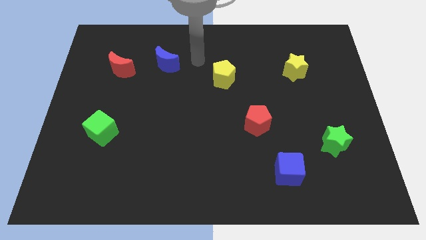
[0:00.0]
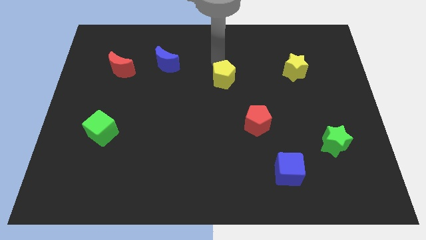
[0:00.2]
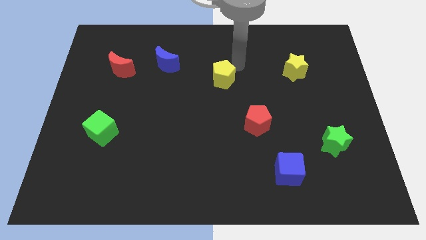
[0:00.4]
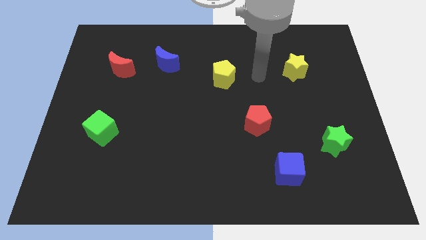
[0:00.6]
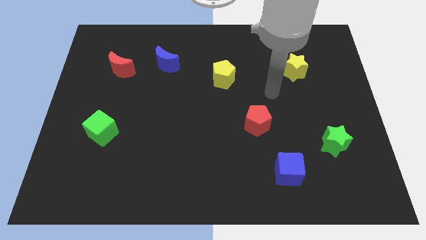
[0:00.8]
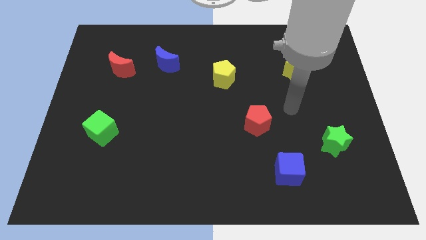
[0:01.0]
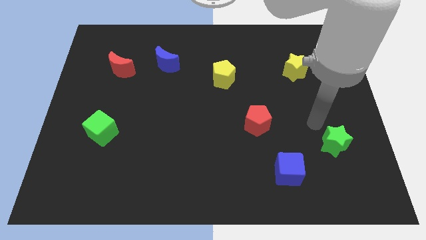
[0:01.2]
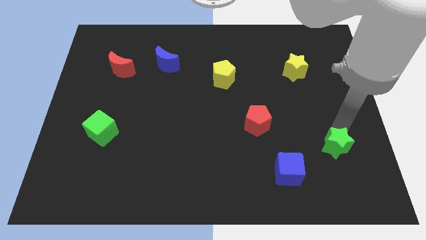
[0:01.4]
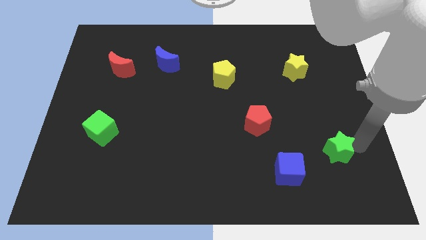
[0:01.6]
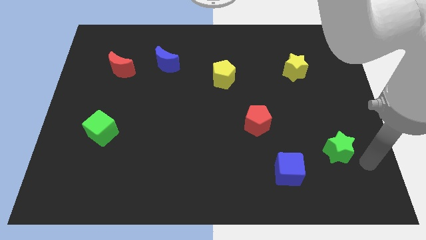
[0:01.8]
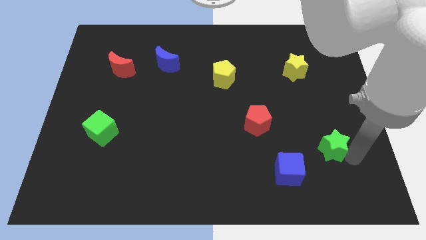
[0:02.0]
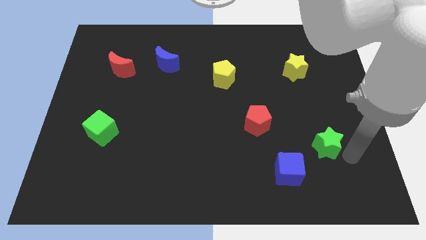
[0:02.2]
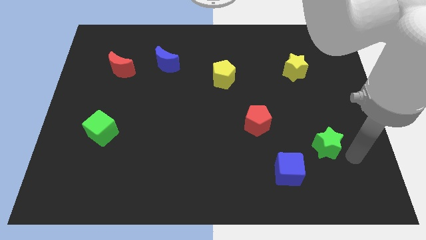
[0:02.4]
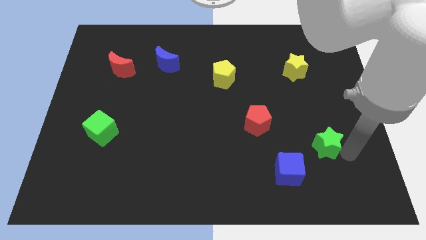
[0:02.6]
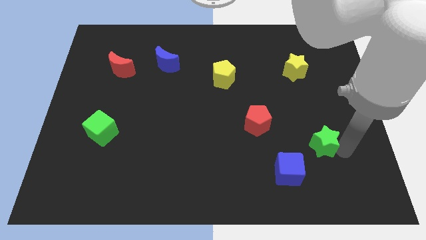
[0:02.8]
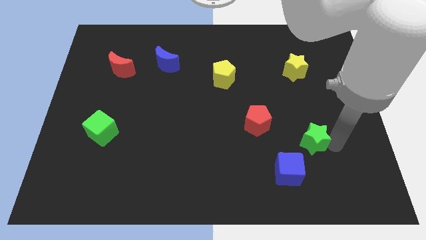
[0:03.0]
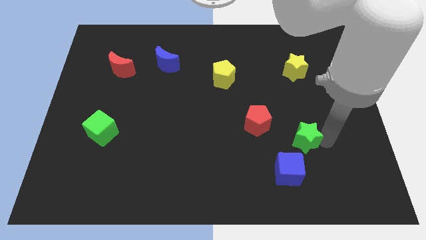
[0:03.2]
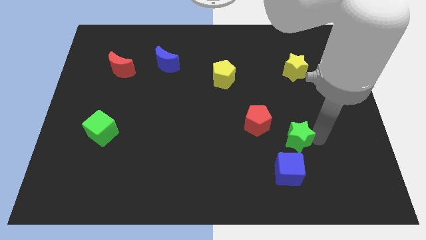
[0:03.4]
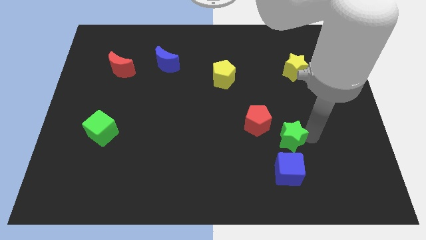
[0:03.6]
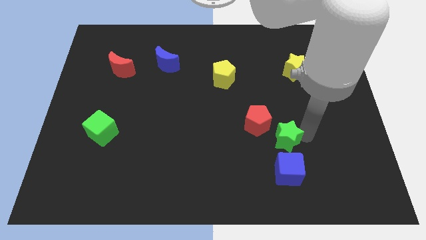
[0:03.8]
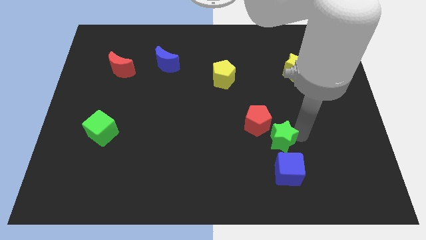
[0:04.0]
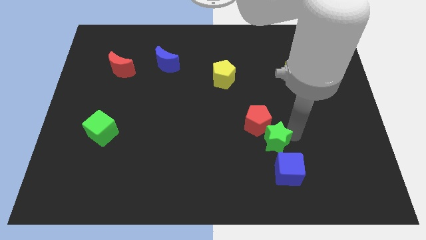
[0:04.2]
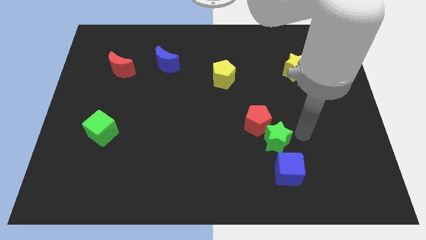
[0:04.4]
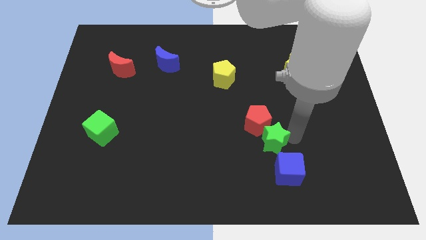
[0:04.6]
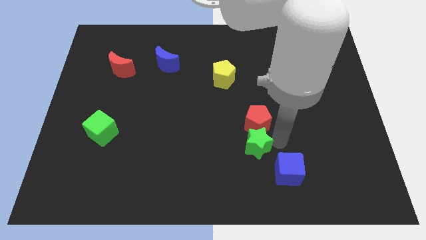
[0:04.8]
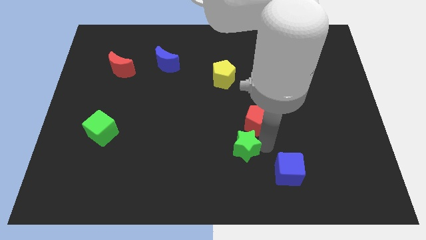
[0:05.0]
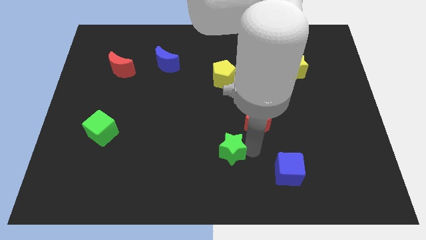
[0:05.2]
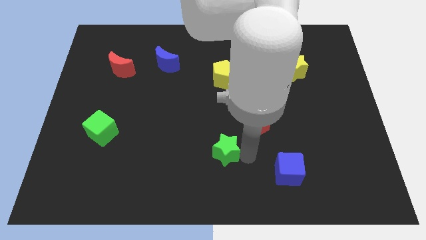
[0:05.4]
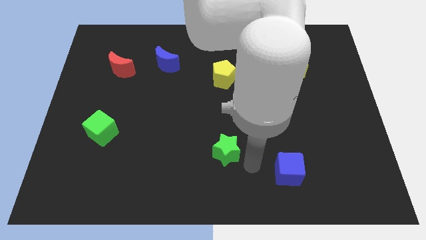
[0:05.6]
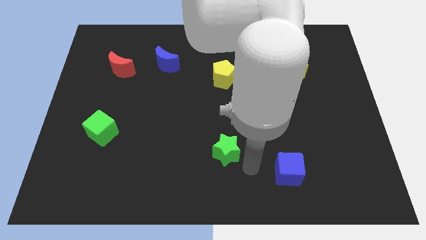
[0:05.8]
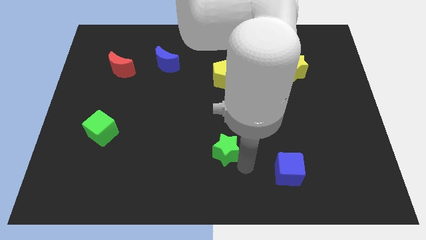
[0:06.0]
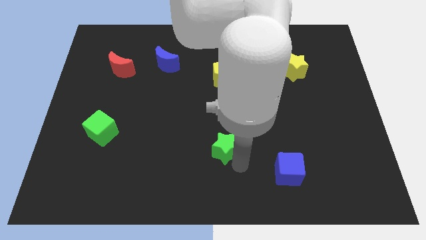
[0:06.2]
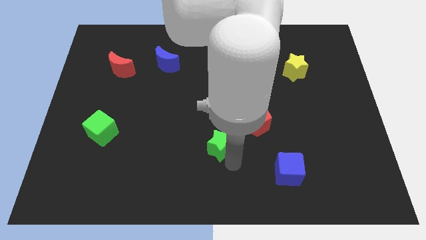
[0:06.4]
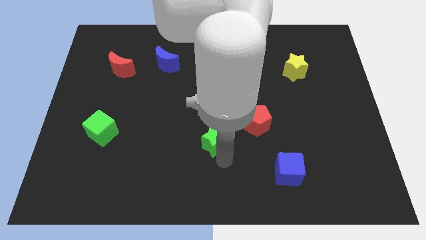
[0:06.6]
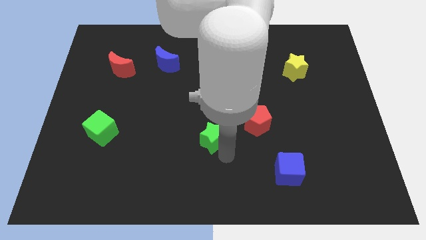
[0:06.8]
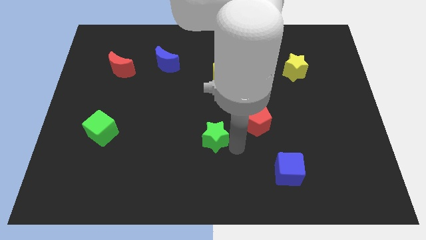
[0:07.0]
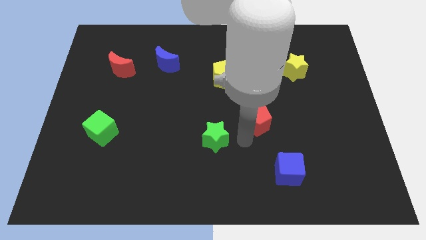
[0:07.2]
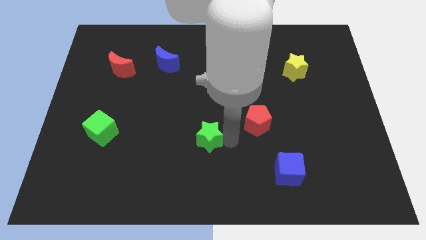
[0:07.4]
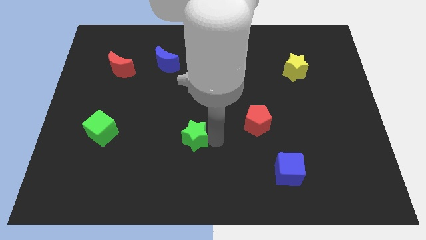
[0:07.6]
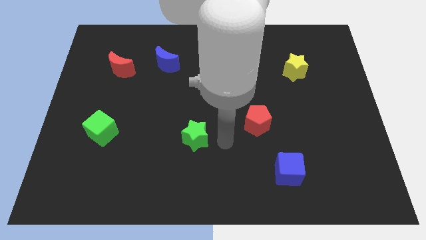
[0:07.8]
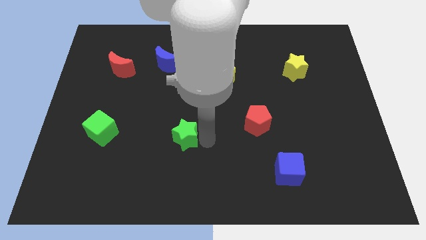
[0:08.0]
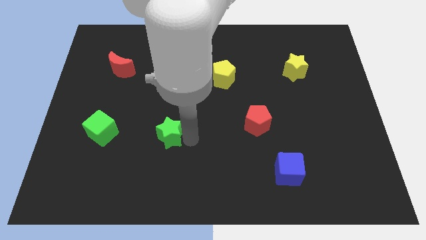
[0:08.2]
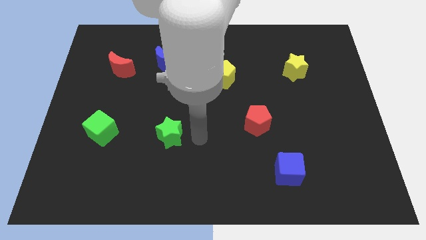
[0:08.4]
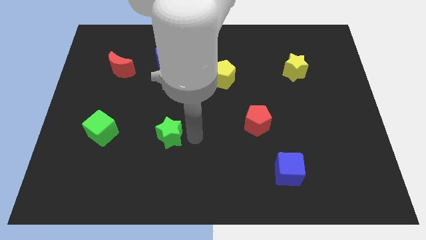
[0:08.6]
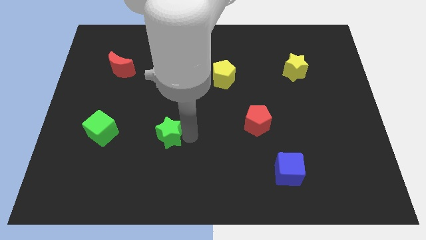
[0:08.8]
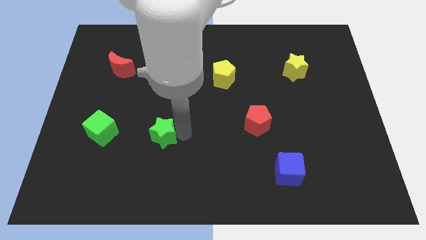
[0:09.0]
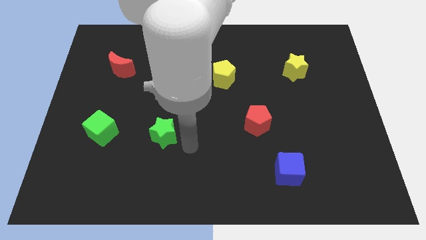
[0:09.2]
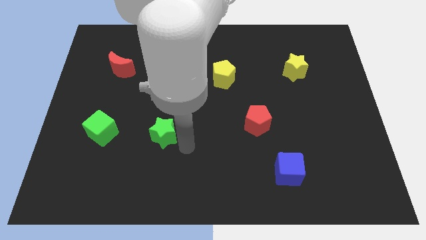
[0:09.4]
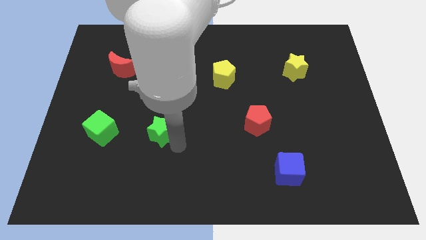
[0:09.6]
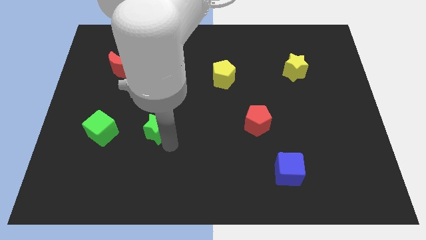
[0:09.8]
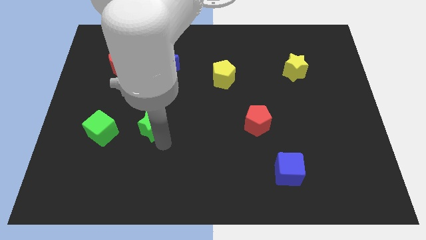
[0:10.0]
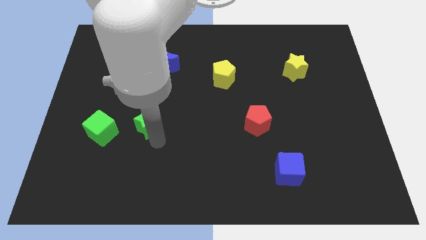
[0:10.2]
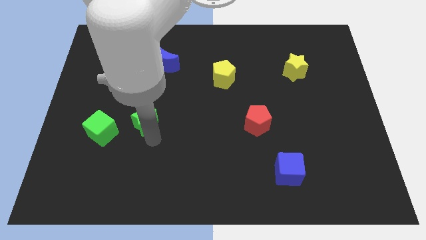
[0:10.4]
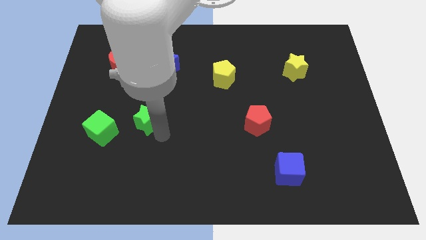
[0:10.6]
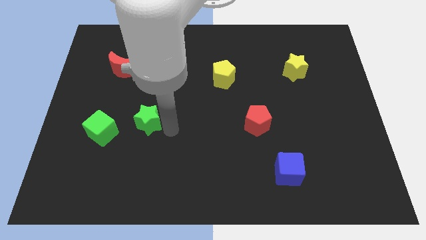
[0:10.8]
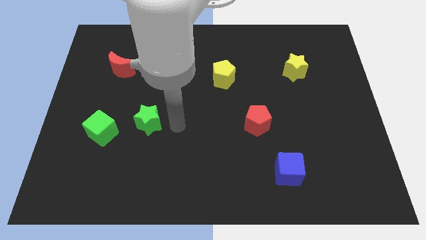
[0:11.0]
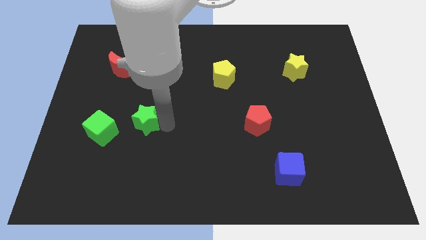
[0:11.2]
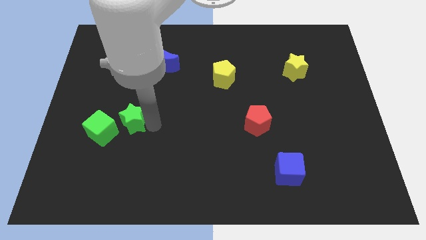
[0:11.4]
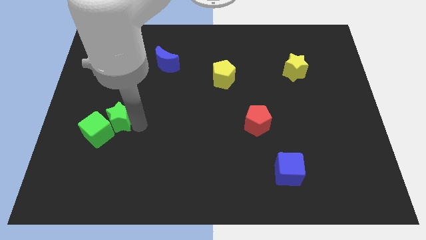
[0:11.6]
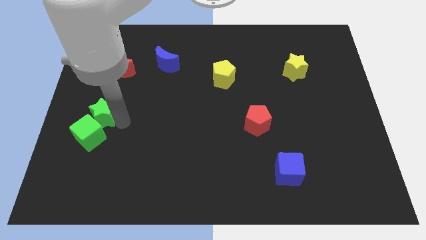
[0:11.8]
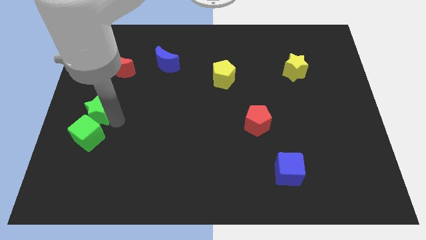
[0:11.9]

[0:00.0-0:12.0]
push the green star to the left side of the board
